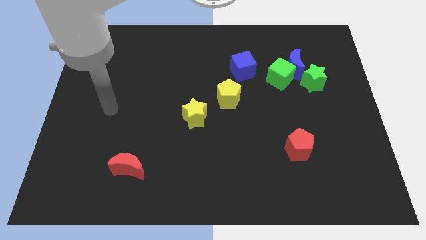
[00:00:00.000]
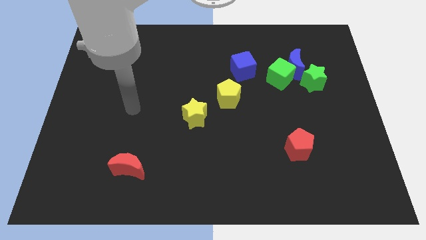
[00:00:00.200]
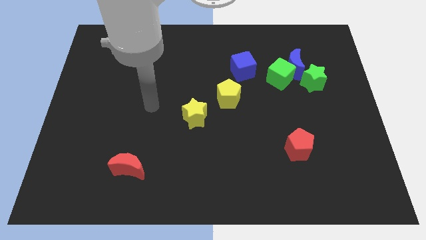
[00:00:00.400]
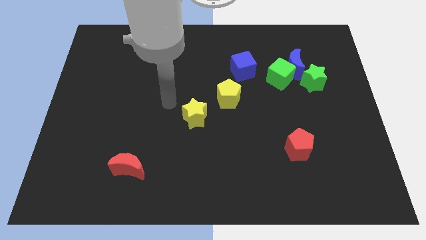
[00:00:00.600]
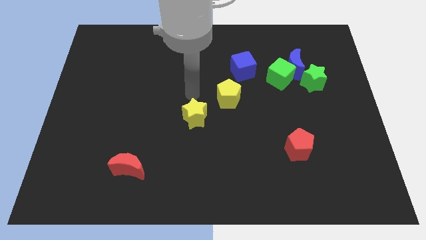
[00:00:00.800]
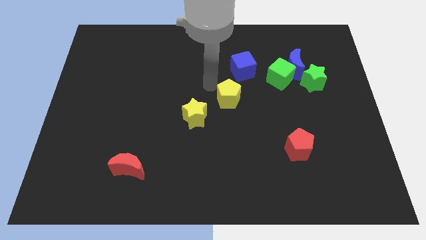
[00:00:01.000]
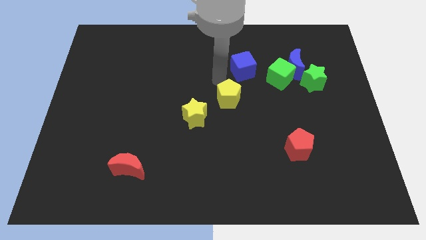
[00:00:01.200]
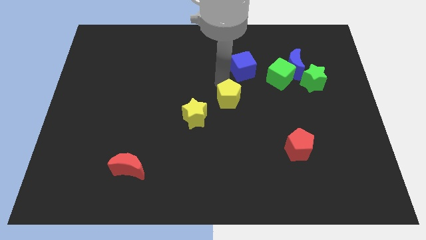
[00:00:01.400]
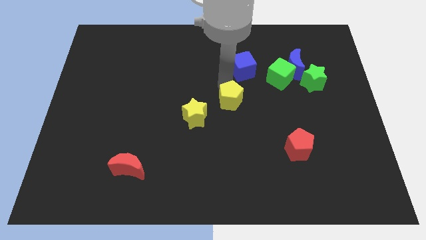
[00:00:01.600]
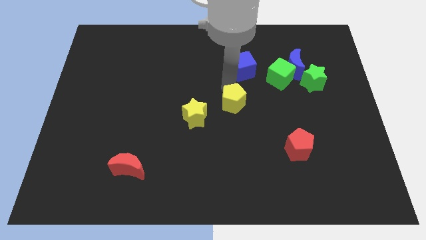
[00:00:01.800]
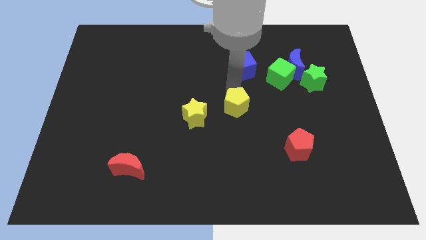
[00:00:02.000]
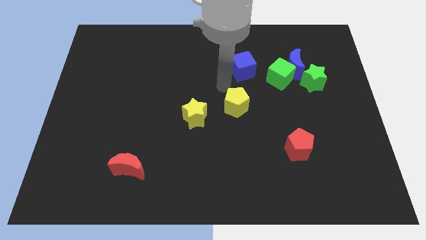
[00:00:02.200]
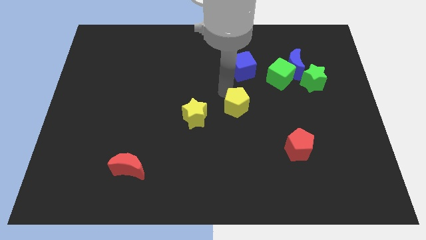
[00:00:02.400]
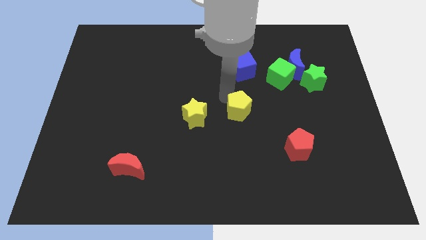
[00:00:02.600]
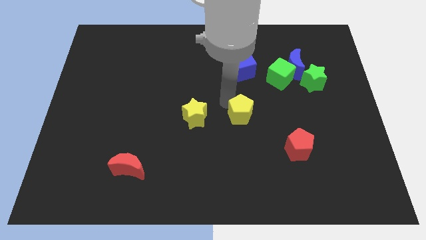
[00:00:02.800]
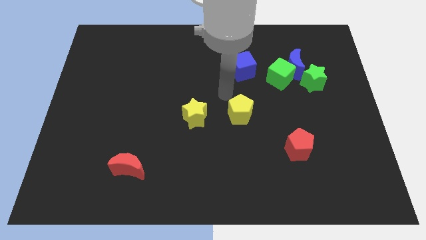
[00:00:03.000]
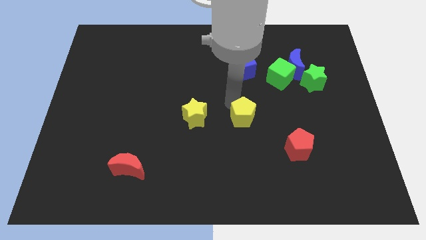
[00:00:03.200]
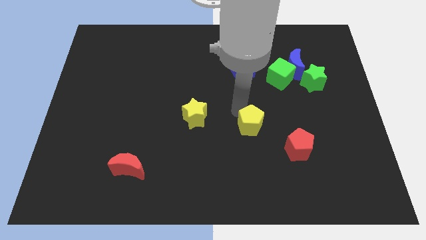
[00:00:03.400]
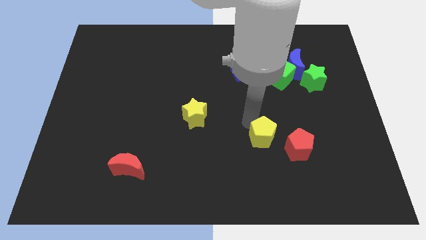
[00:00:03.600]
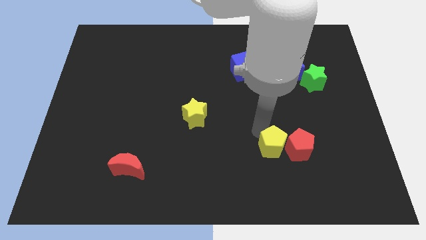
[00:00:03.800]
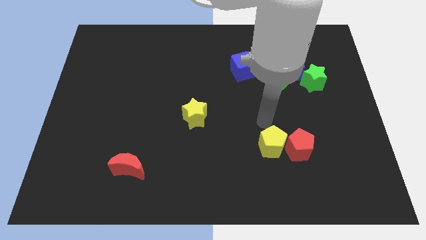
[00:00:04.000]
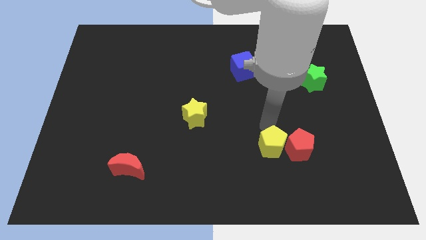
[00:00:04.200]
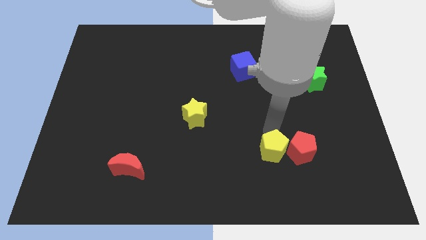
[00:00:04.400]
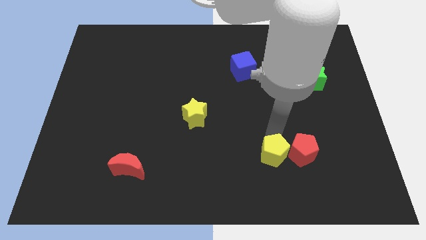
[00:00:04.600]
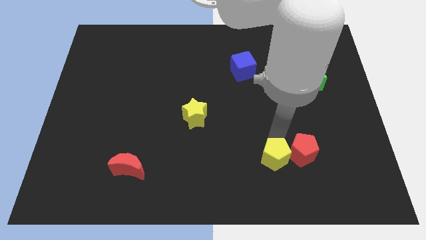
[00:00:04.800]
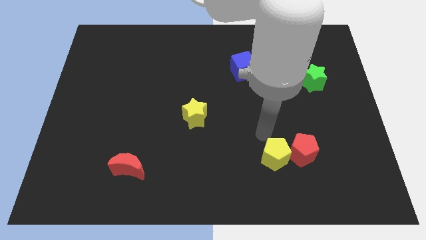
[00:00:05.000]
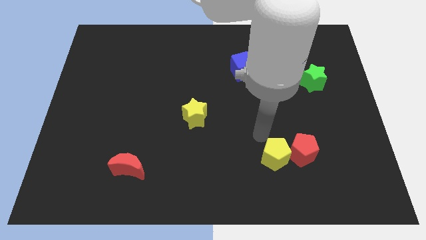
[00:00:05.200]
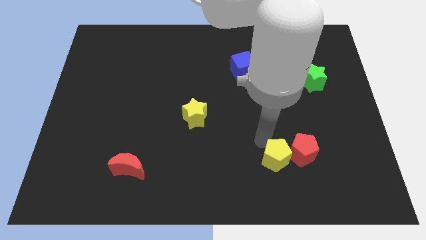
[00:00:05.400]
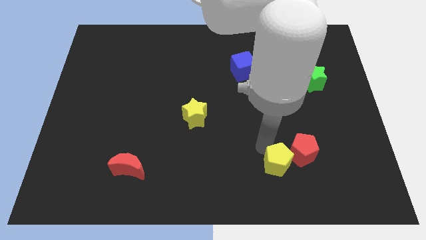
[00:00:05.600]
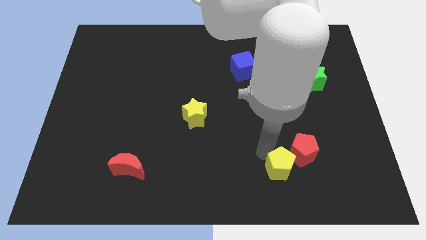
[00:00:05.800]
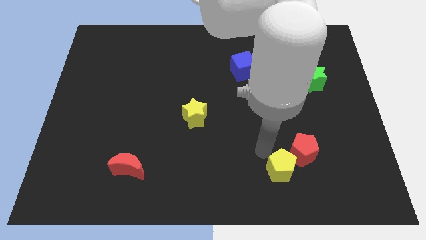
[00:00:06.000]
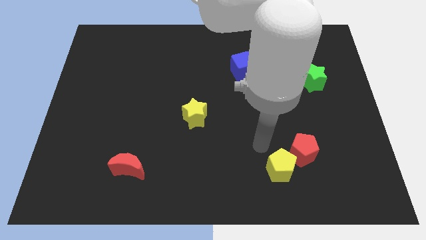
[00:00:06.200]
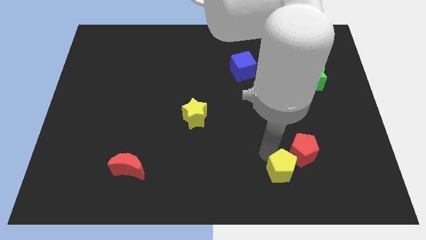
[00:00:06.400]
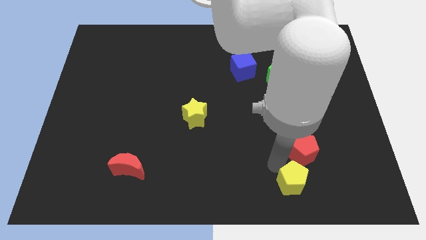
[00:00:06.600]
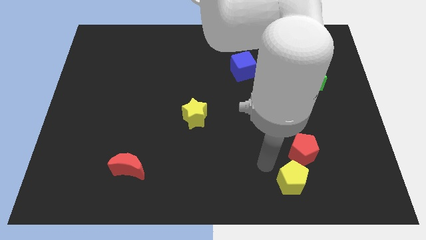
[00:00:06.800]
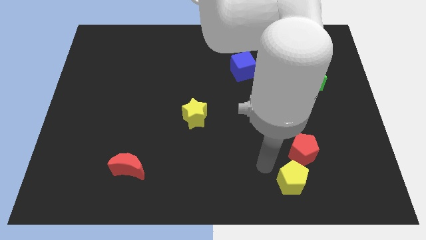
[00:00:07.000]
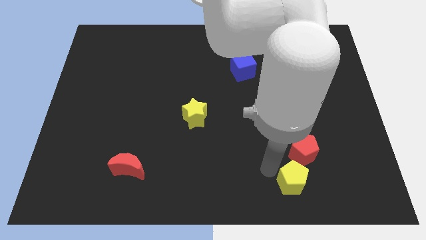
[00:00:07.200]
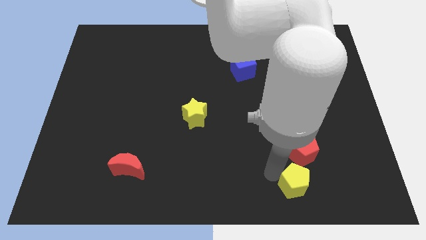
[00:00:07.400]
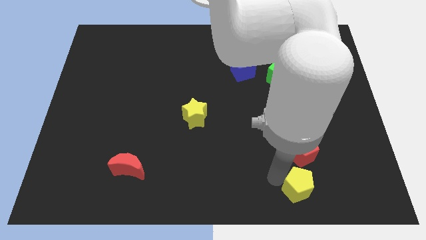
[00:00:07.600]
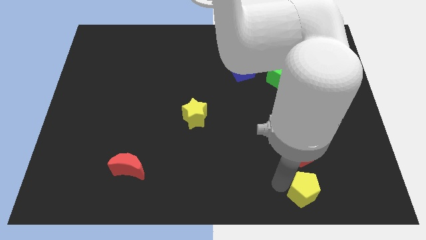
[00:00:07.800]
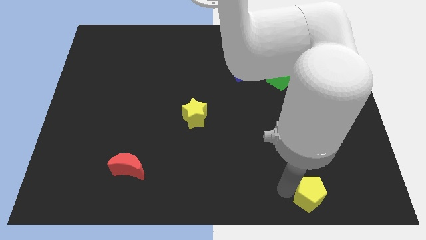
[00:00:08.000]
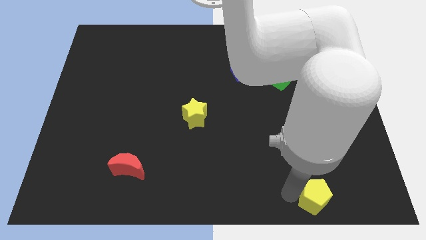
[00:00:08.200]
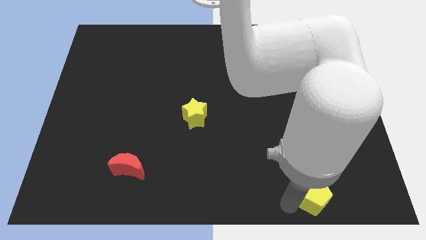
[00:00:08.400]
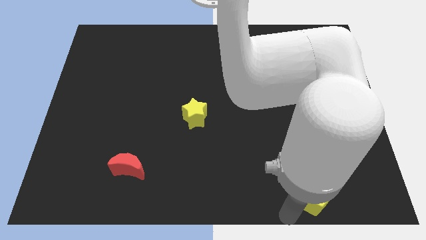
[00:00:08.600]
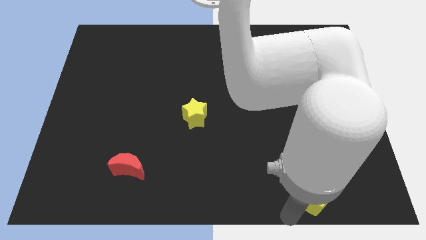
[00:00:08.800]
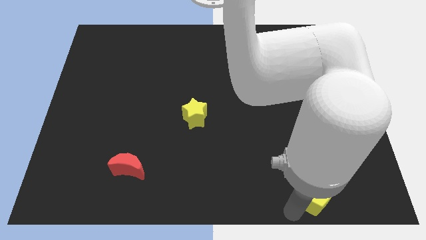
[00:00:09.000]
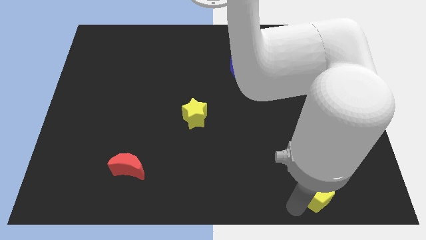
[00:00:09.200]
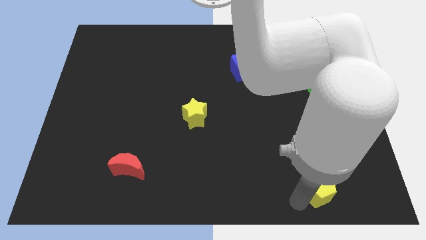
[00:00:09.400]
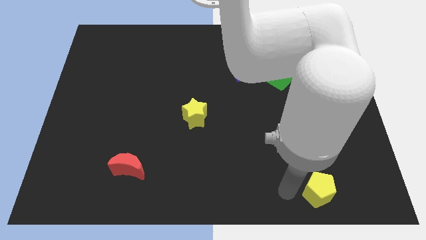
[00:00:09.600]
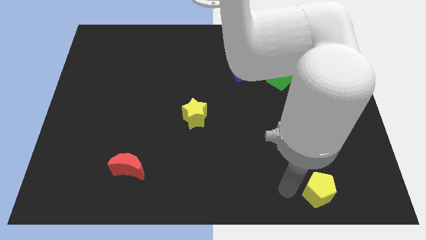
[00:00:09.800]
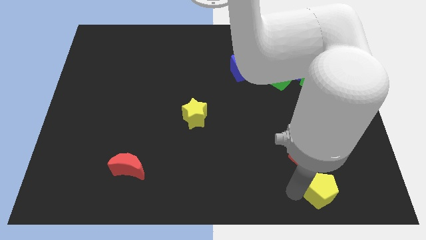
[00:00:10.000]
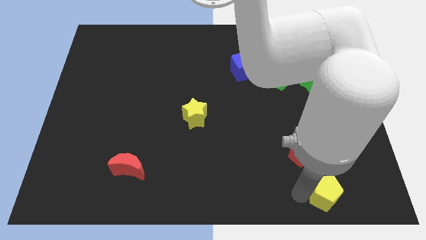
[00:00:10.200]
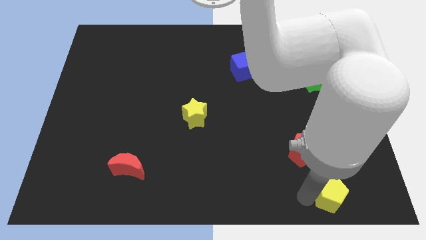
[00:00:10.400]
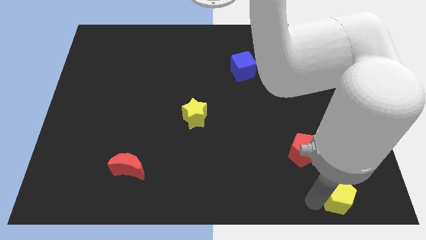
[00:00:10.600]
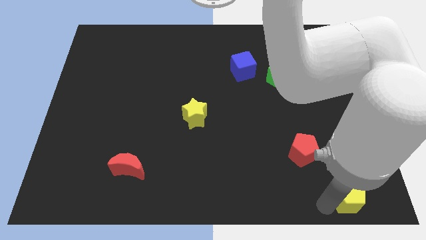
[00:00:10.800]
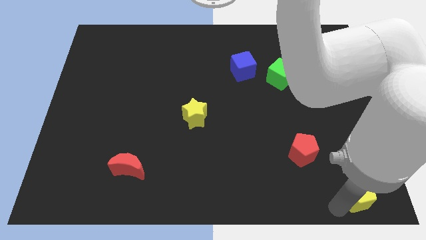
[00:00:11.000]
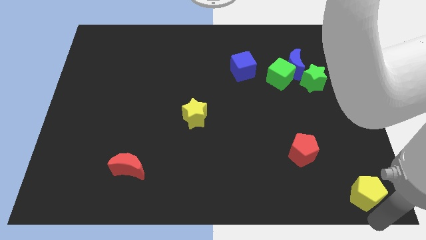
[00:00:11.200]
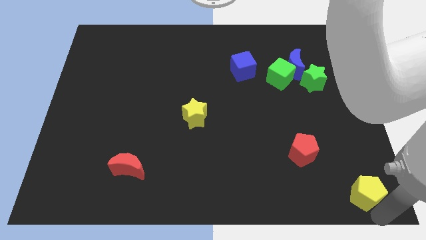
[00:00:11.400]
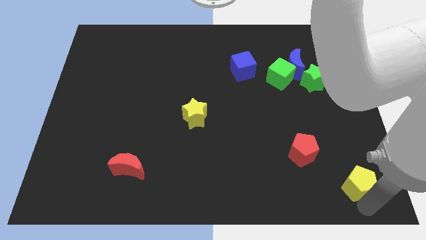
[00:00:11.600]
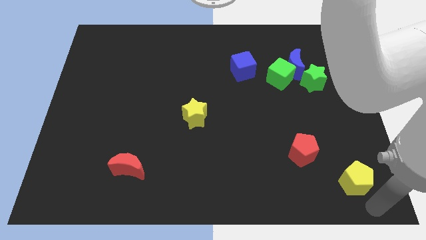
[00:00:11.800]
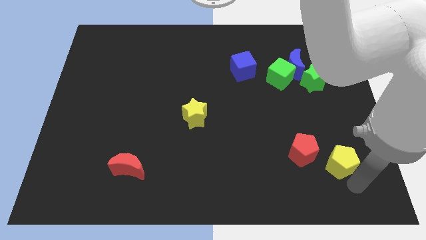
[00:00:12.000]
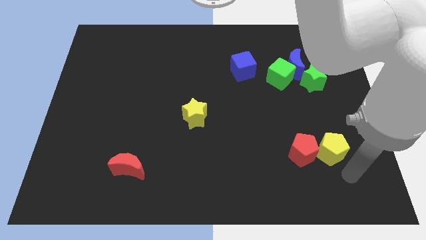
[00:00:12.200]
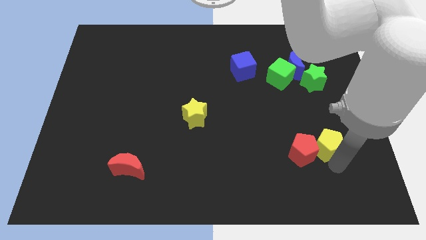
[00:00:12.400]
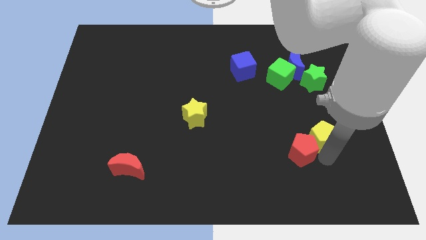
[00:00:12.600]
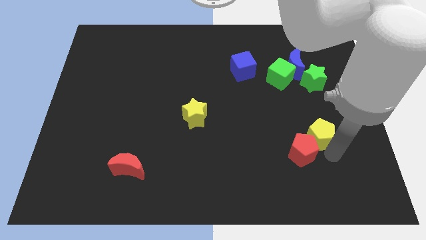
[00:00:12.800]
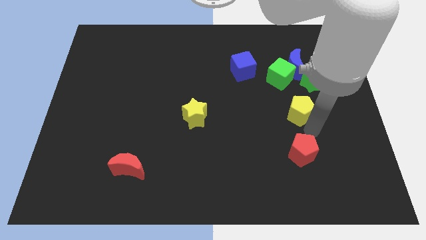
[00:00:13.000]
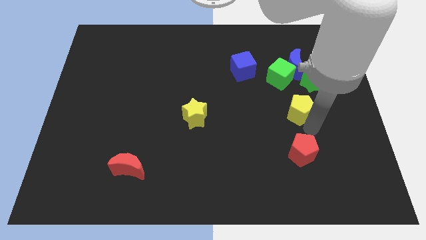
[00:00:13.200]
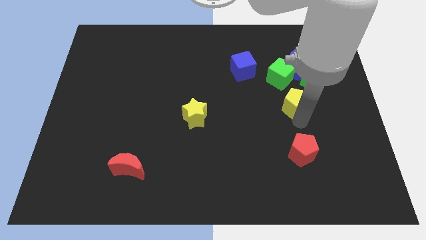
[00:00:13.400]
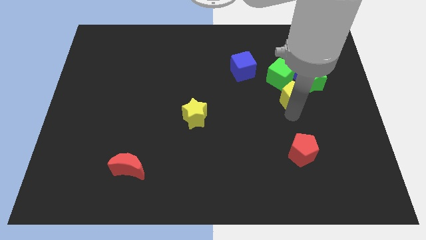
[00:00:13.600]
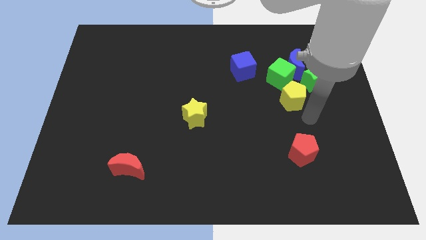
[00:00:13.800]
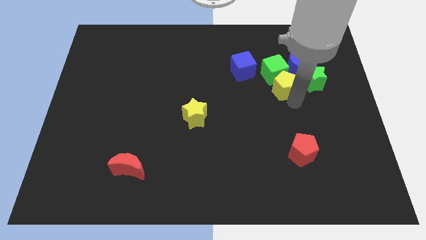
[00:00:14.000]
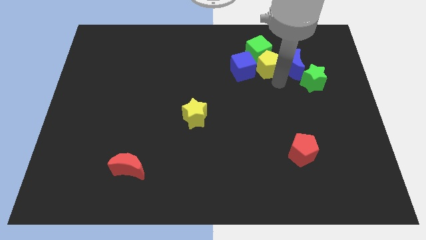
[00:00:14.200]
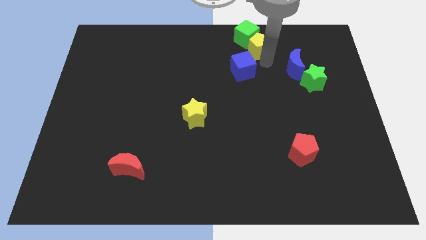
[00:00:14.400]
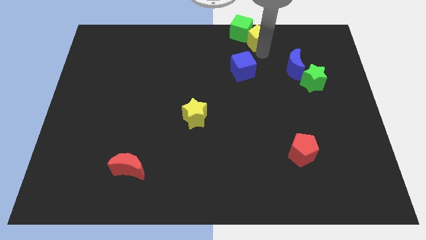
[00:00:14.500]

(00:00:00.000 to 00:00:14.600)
move the yellow pentagon to the towards your base
